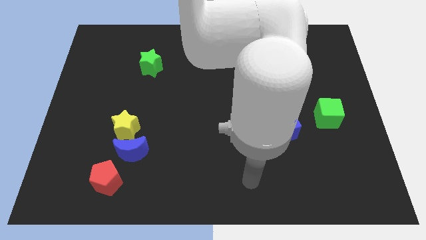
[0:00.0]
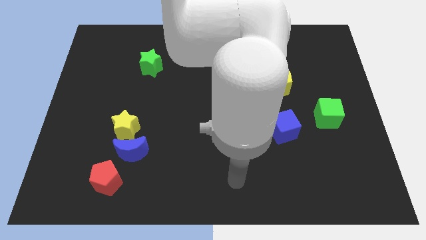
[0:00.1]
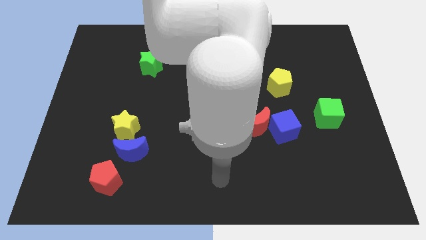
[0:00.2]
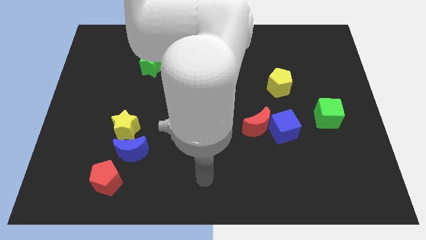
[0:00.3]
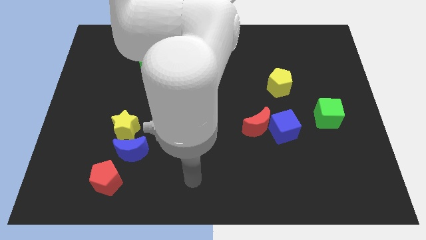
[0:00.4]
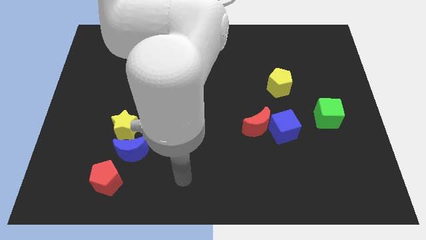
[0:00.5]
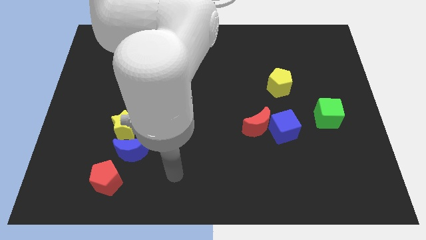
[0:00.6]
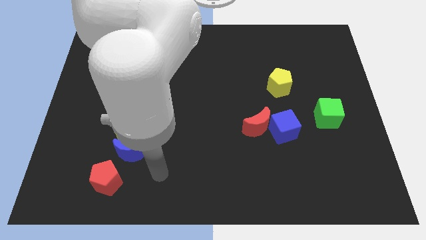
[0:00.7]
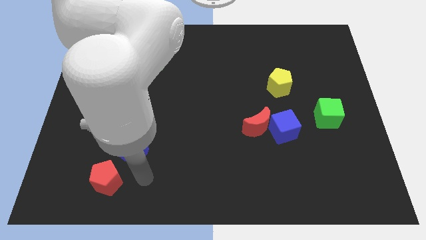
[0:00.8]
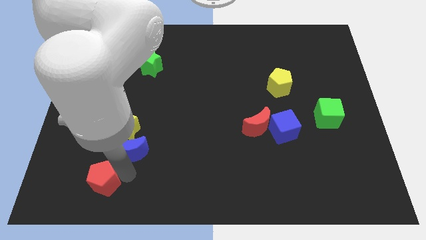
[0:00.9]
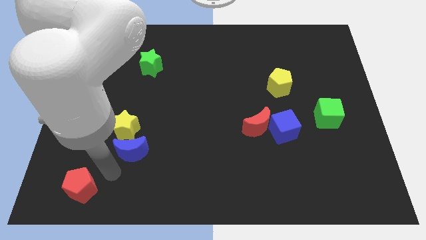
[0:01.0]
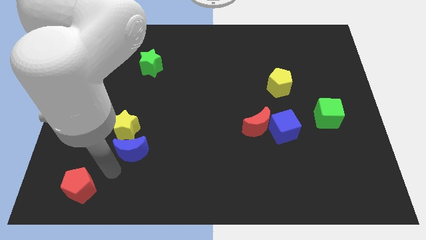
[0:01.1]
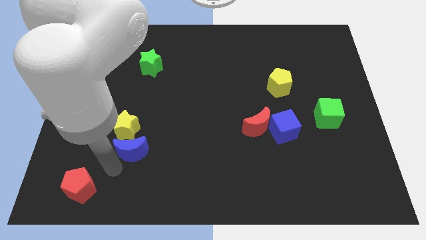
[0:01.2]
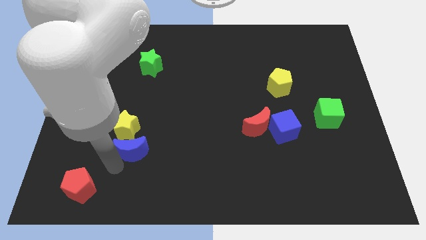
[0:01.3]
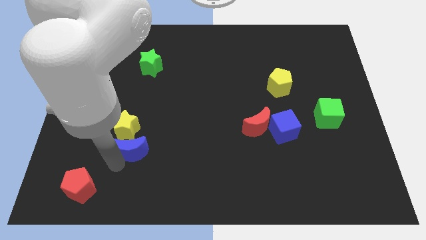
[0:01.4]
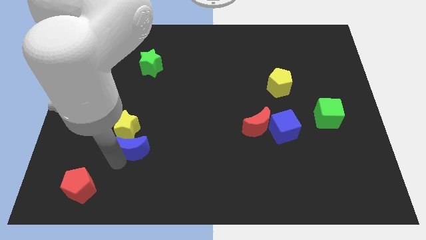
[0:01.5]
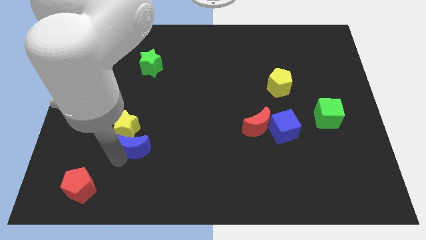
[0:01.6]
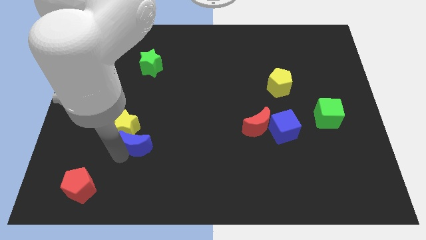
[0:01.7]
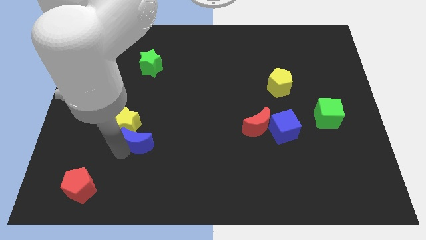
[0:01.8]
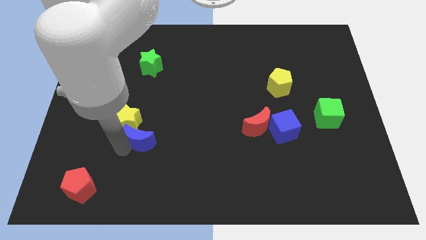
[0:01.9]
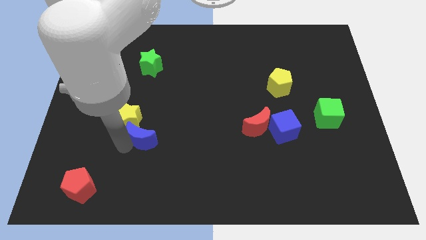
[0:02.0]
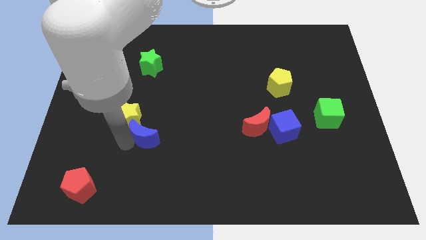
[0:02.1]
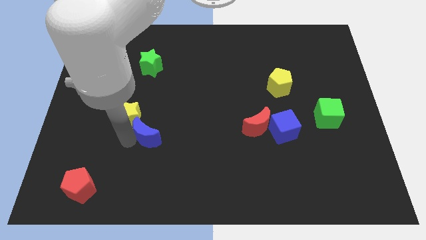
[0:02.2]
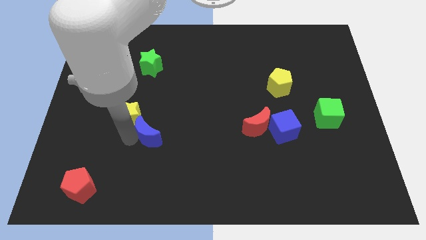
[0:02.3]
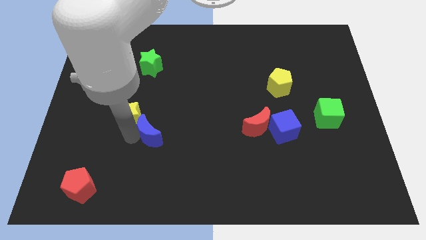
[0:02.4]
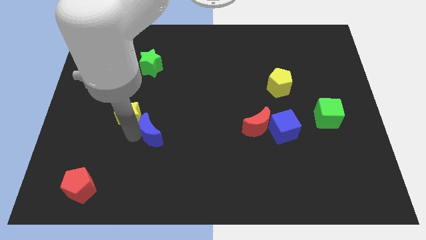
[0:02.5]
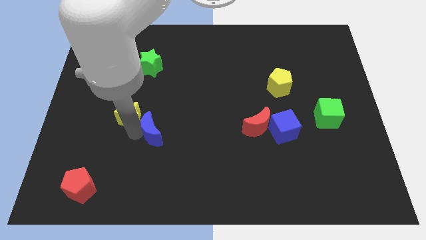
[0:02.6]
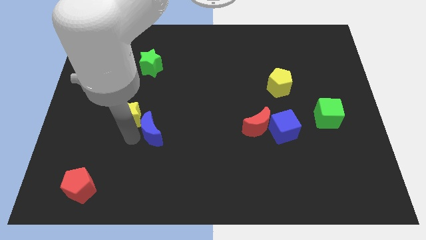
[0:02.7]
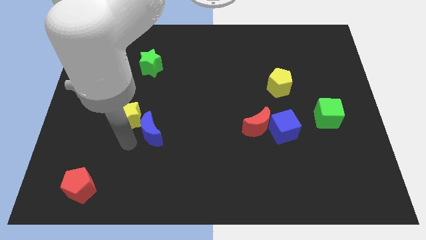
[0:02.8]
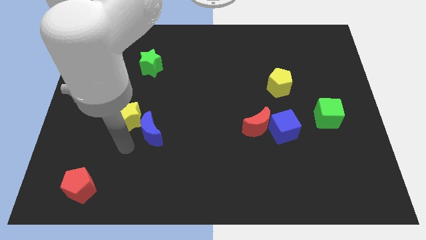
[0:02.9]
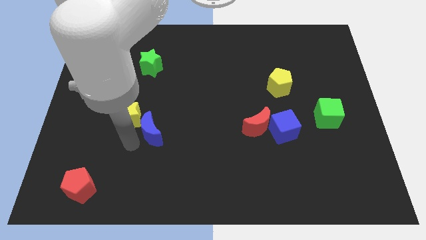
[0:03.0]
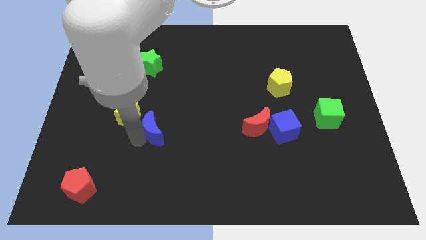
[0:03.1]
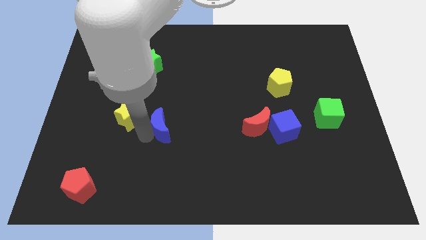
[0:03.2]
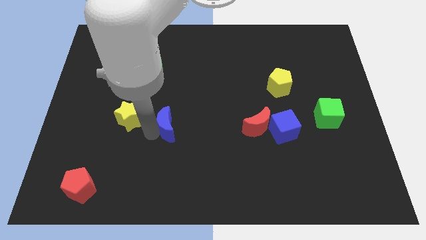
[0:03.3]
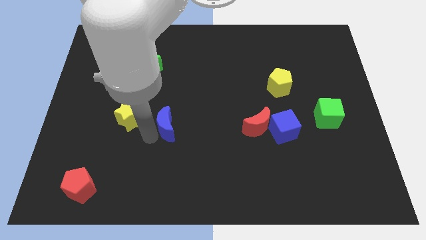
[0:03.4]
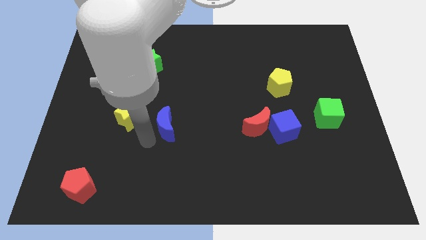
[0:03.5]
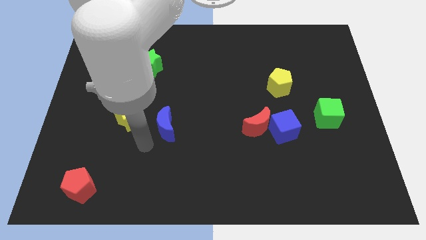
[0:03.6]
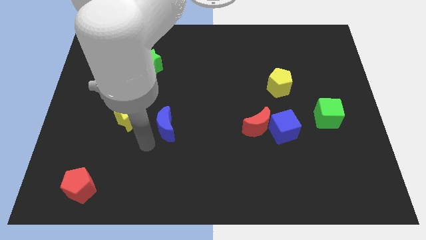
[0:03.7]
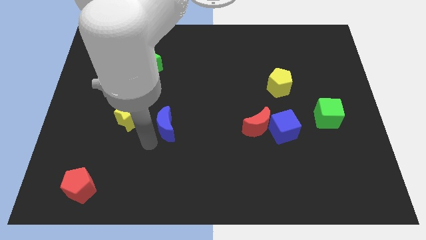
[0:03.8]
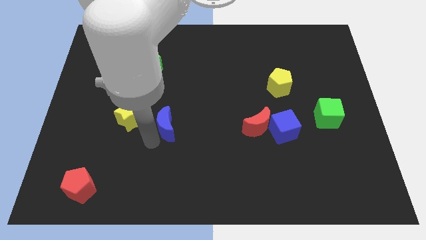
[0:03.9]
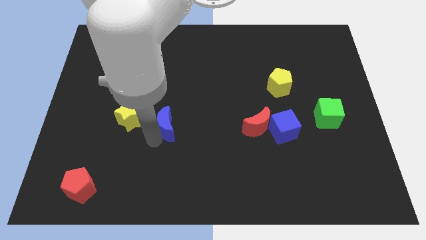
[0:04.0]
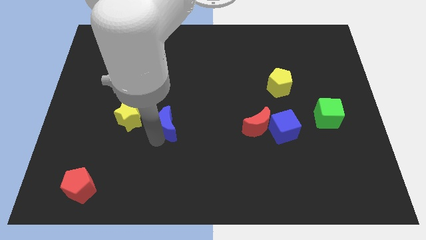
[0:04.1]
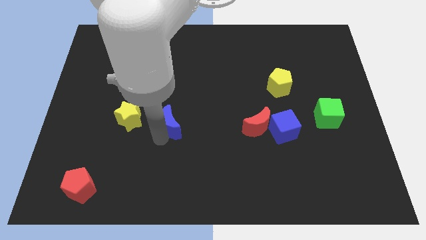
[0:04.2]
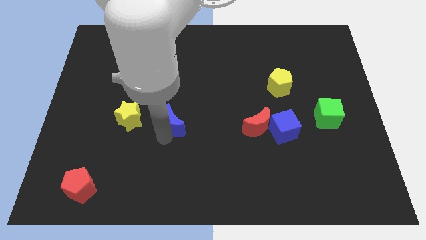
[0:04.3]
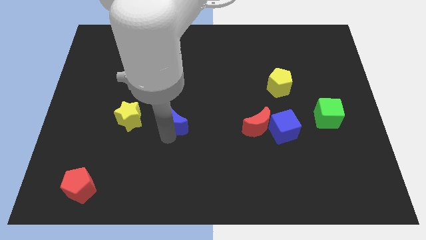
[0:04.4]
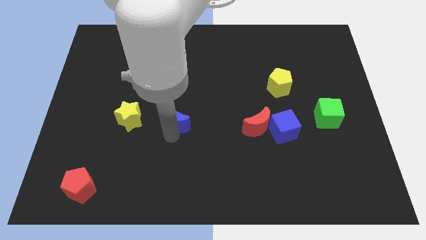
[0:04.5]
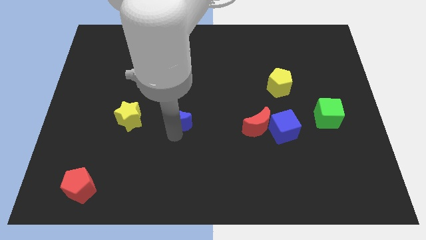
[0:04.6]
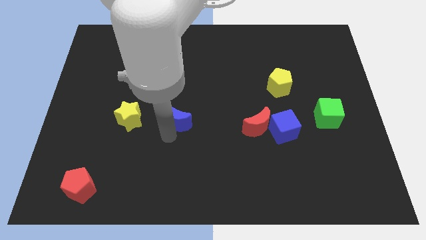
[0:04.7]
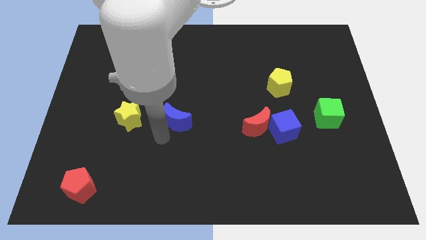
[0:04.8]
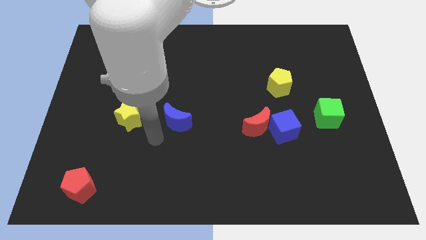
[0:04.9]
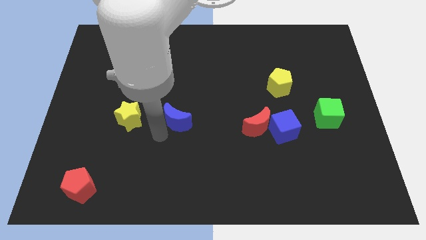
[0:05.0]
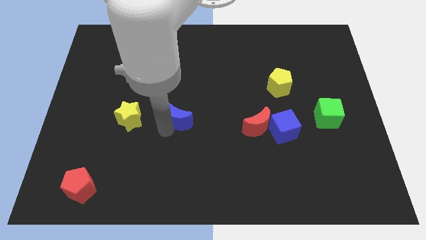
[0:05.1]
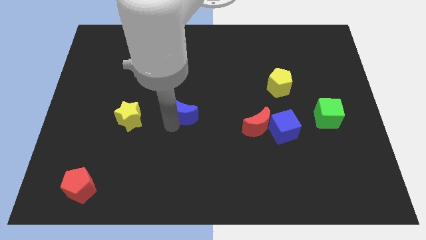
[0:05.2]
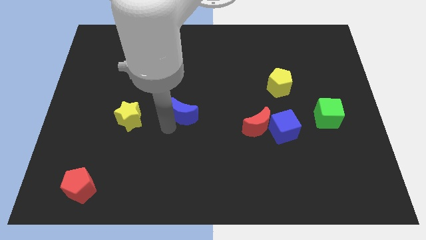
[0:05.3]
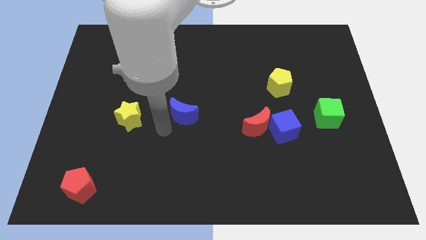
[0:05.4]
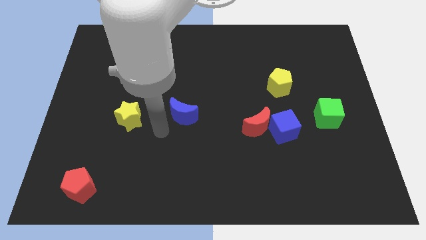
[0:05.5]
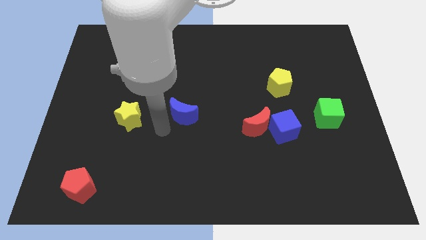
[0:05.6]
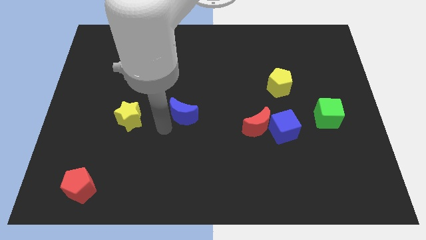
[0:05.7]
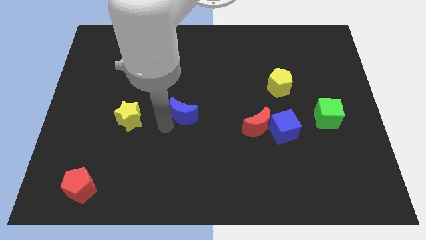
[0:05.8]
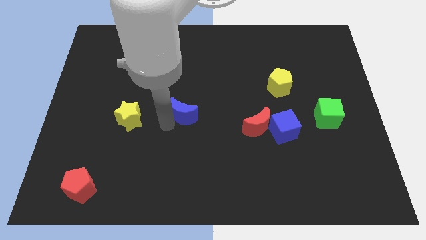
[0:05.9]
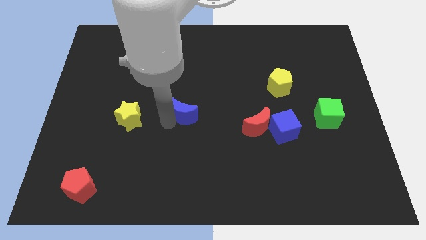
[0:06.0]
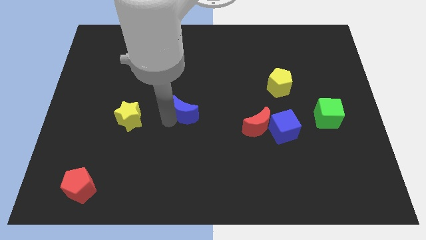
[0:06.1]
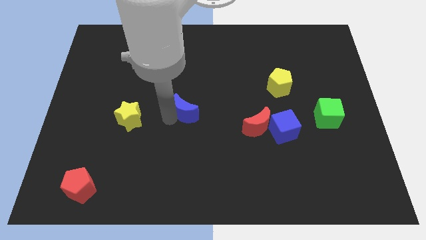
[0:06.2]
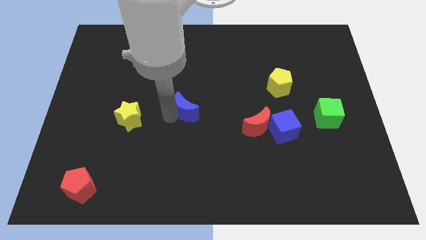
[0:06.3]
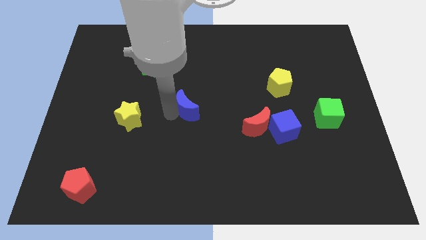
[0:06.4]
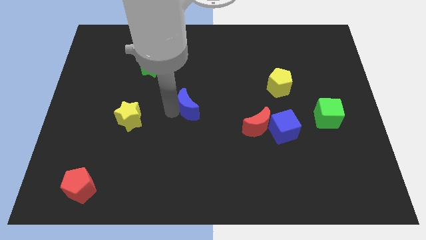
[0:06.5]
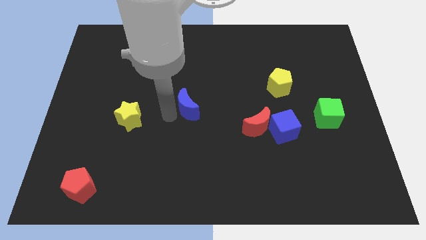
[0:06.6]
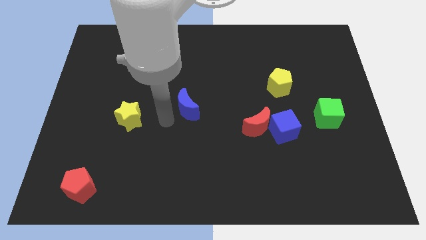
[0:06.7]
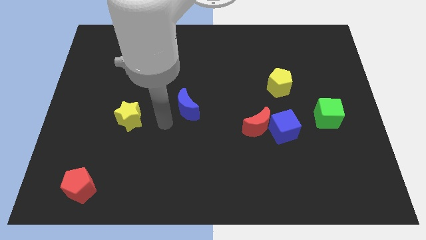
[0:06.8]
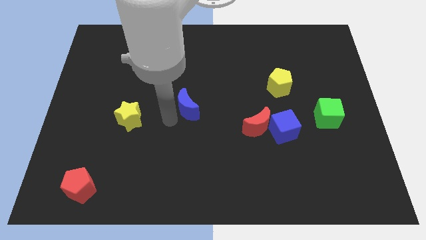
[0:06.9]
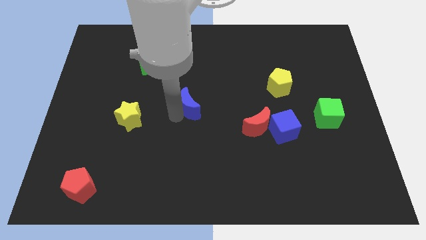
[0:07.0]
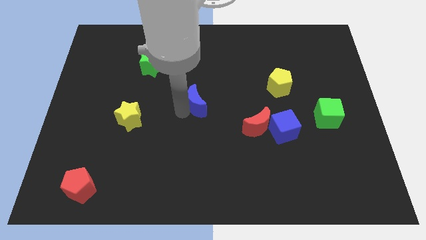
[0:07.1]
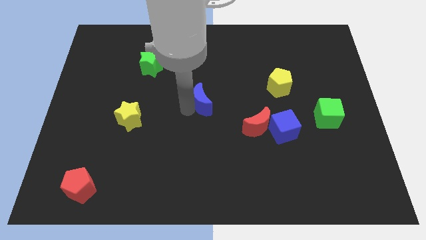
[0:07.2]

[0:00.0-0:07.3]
push the blue moon up and right

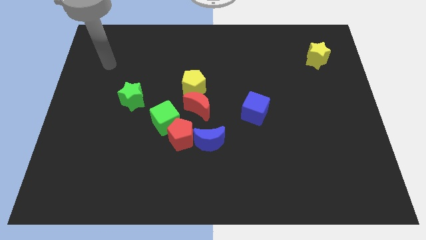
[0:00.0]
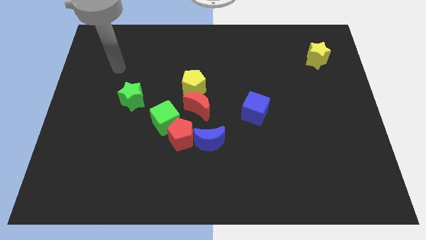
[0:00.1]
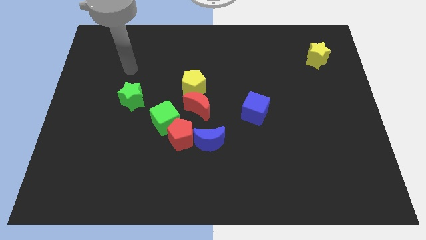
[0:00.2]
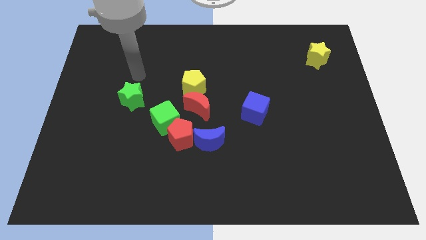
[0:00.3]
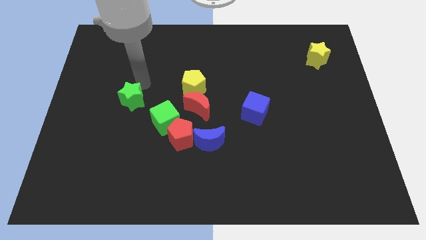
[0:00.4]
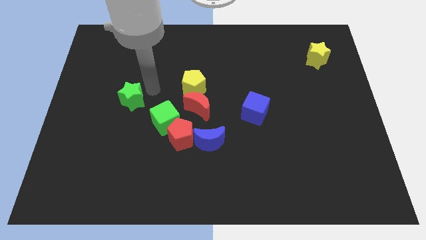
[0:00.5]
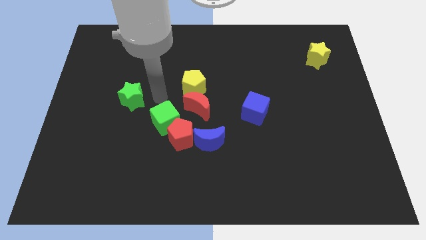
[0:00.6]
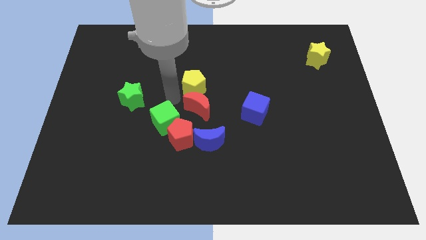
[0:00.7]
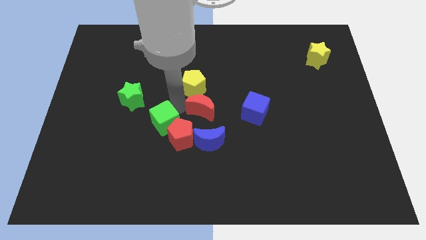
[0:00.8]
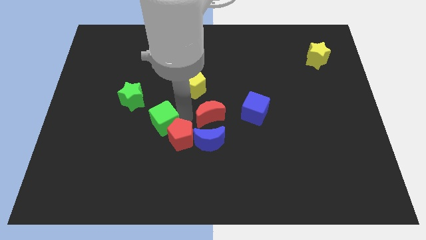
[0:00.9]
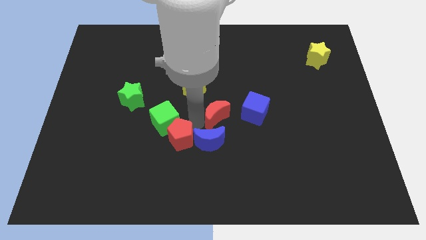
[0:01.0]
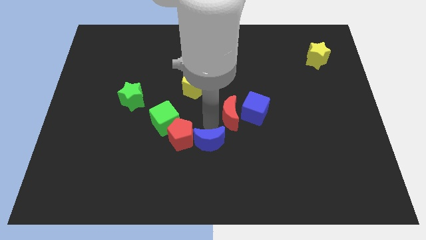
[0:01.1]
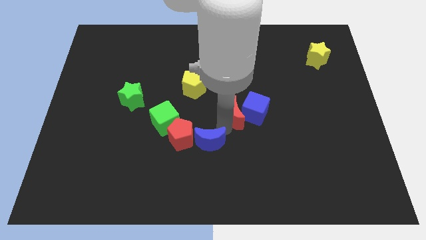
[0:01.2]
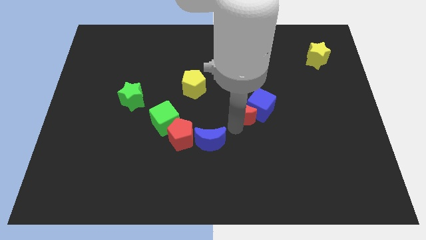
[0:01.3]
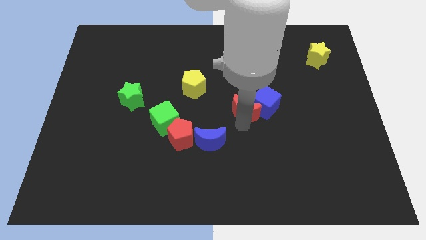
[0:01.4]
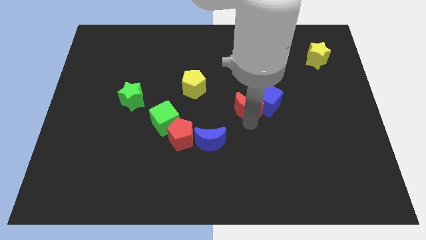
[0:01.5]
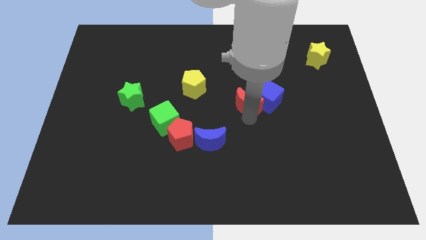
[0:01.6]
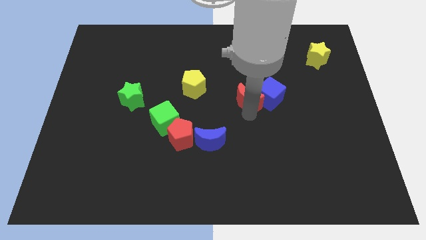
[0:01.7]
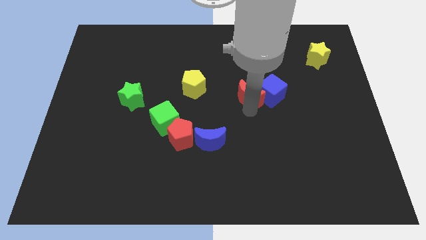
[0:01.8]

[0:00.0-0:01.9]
slide the blue cube up and then right a bit
